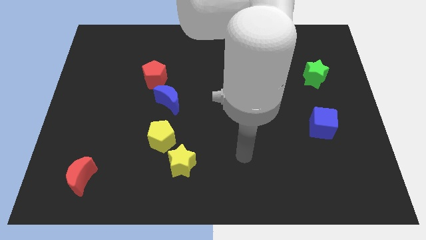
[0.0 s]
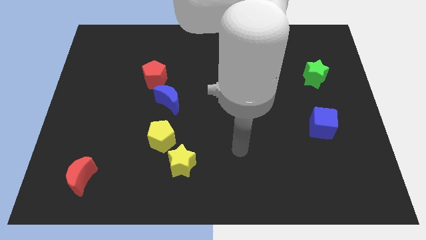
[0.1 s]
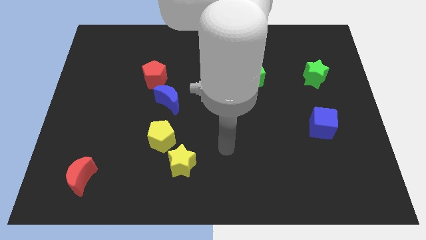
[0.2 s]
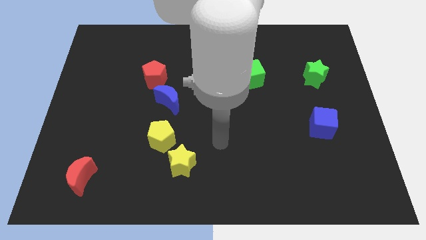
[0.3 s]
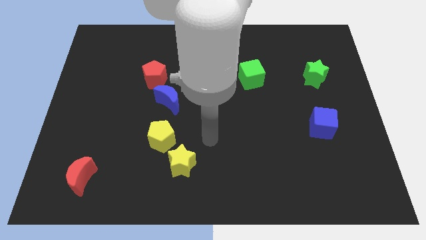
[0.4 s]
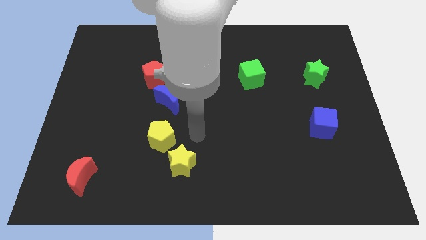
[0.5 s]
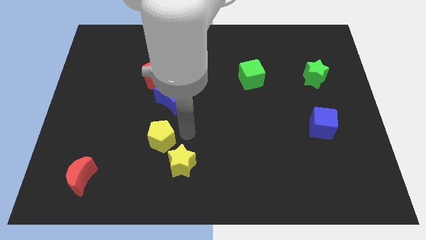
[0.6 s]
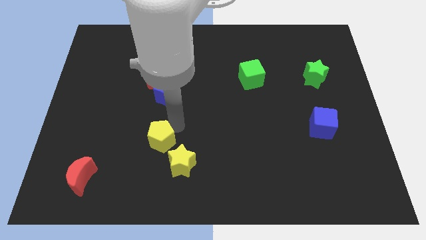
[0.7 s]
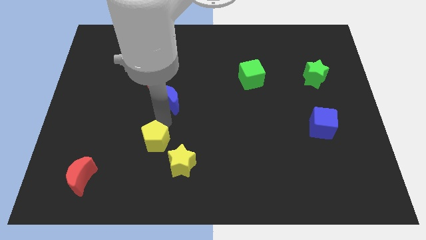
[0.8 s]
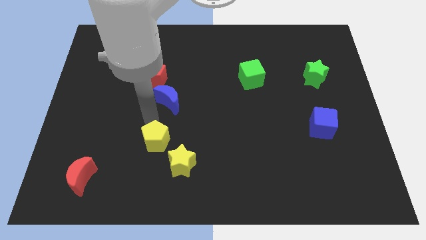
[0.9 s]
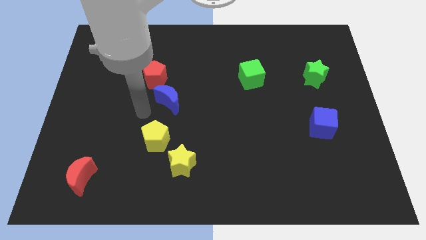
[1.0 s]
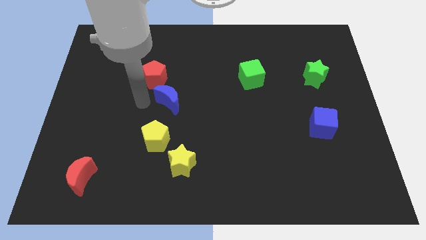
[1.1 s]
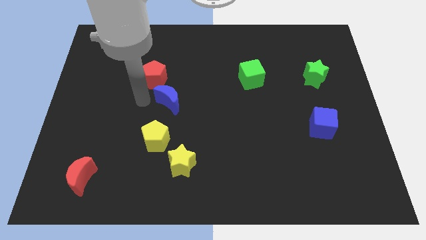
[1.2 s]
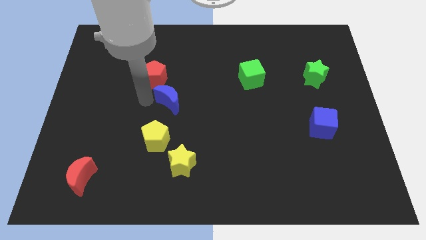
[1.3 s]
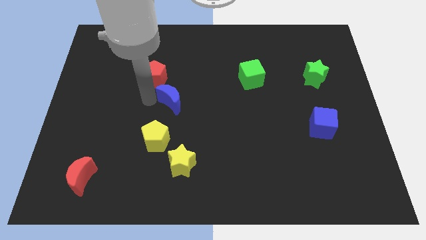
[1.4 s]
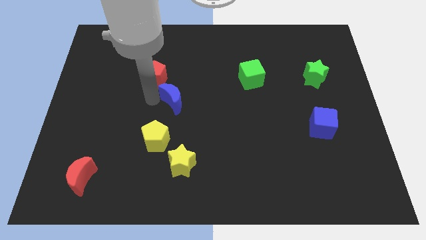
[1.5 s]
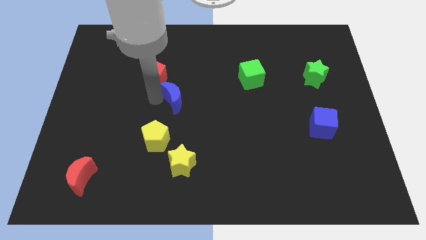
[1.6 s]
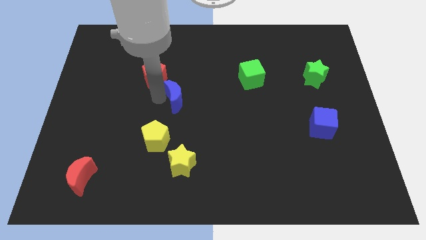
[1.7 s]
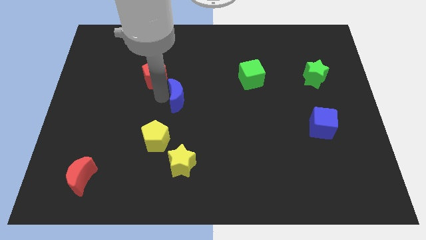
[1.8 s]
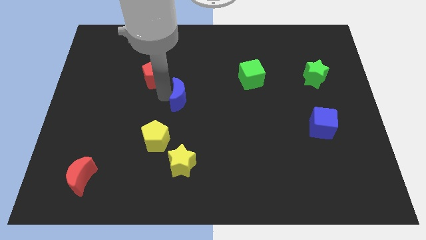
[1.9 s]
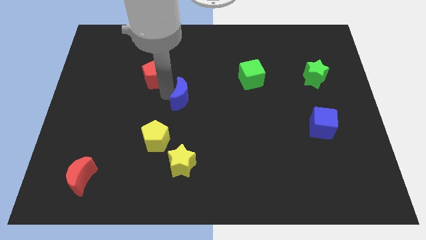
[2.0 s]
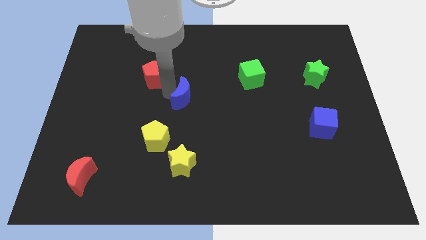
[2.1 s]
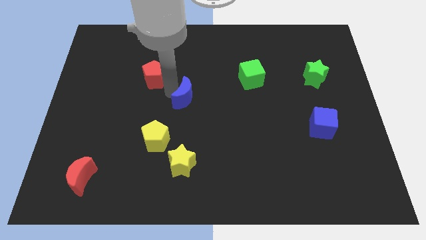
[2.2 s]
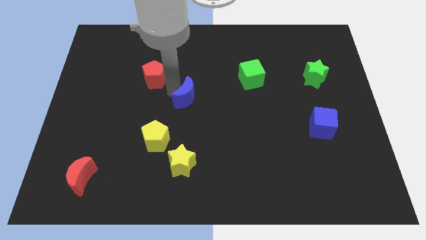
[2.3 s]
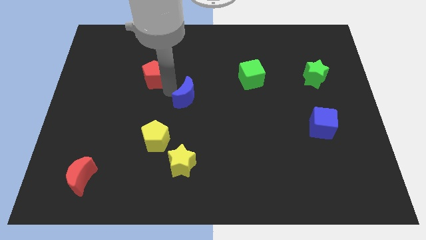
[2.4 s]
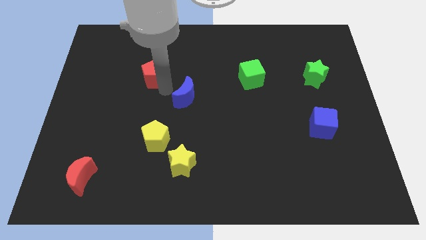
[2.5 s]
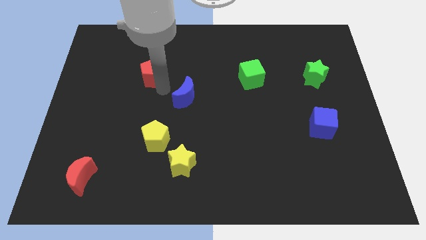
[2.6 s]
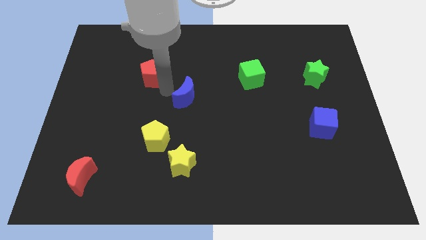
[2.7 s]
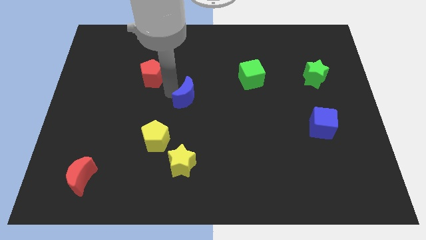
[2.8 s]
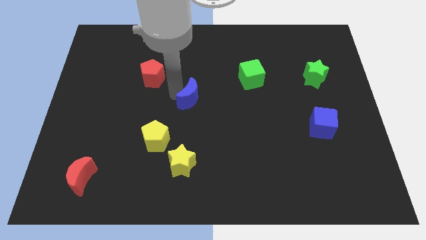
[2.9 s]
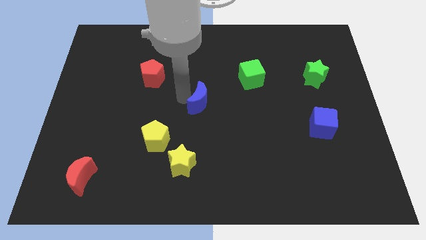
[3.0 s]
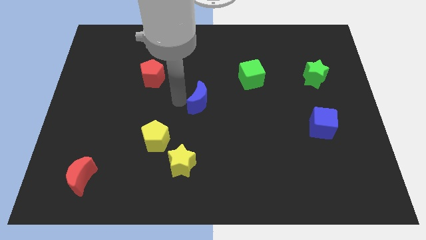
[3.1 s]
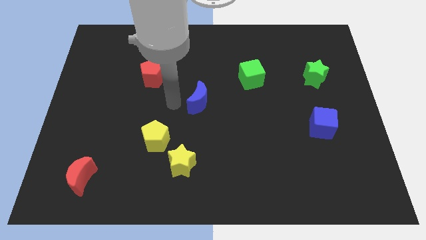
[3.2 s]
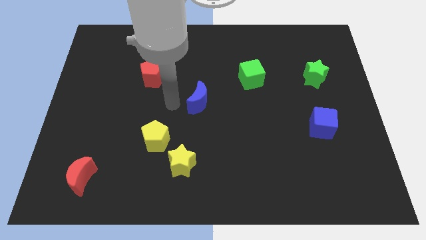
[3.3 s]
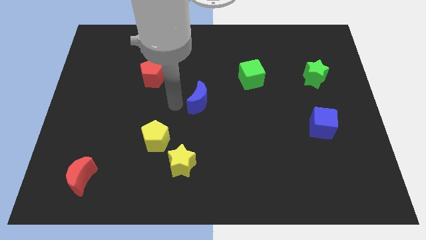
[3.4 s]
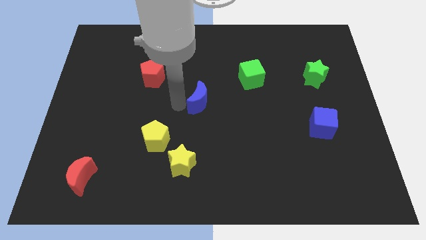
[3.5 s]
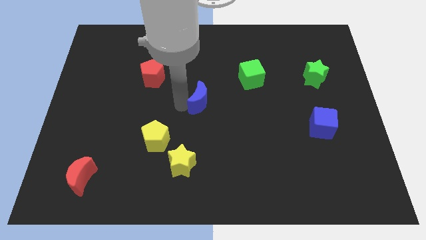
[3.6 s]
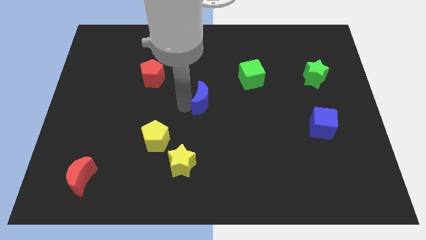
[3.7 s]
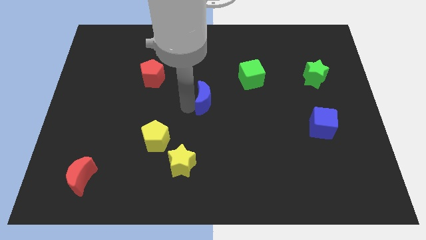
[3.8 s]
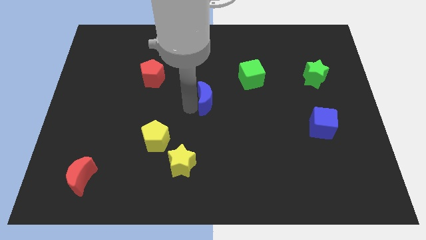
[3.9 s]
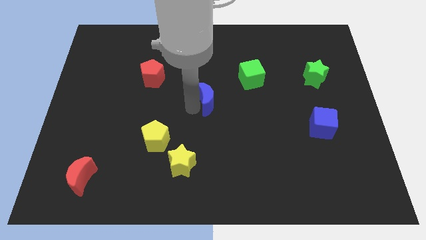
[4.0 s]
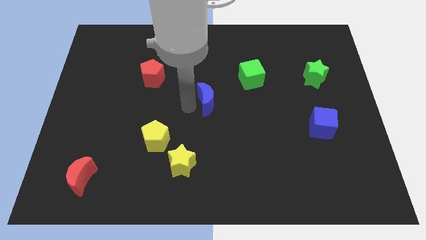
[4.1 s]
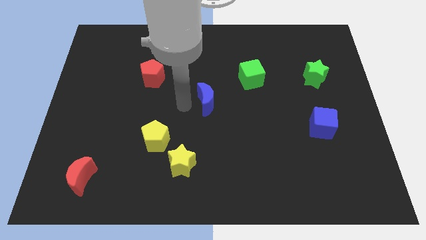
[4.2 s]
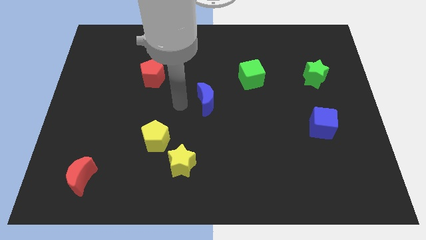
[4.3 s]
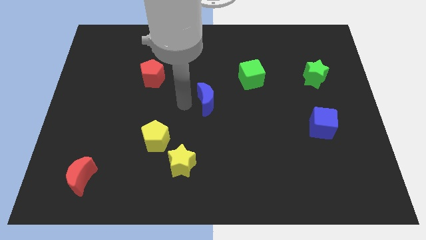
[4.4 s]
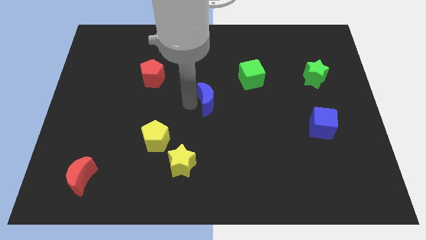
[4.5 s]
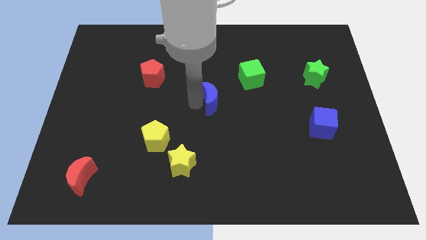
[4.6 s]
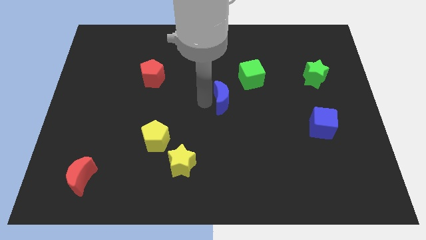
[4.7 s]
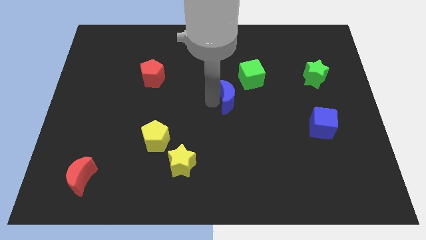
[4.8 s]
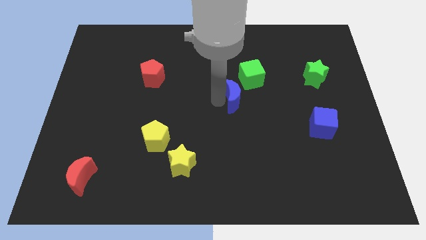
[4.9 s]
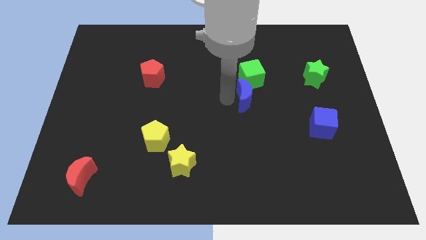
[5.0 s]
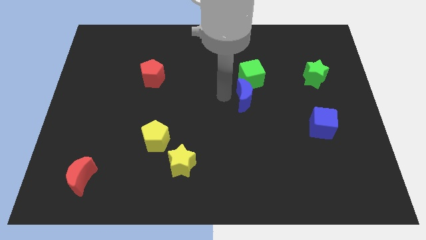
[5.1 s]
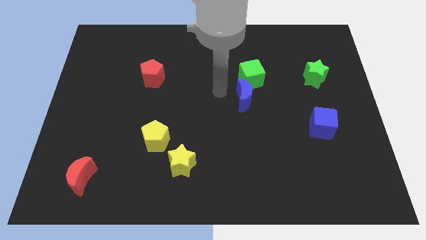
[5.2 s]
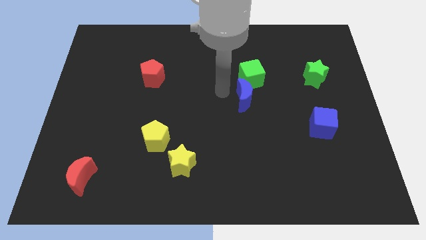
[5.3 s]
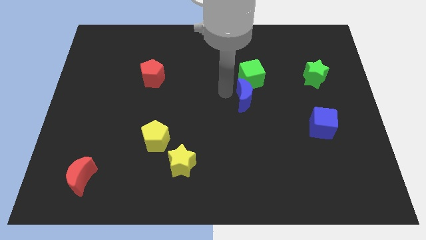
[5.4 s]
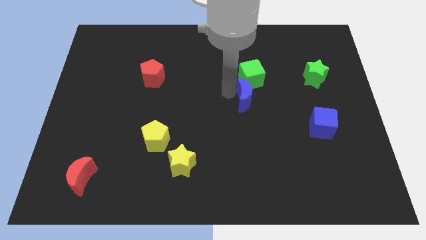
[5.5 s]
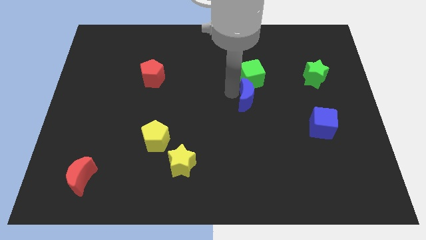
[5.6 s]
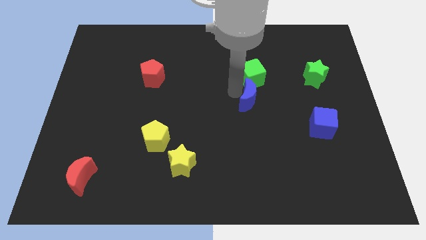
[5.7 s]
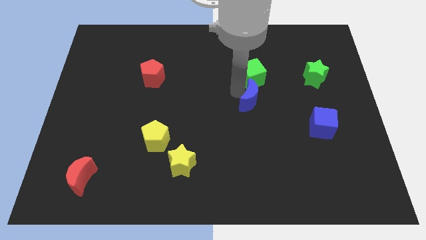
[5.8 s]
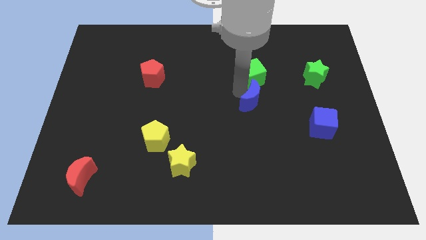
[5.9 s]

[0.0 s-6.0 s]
move the blue moon right

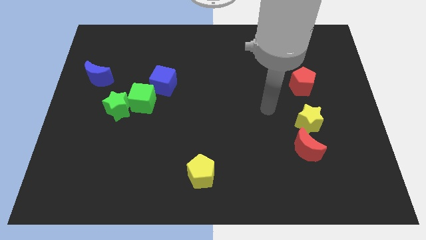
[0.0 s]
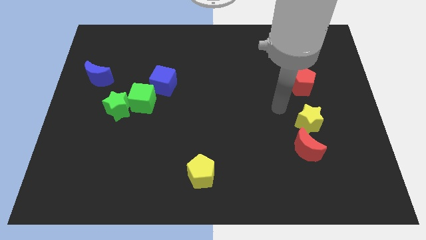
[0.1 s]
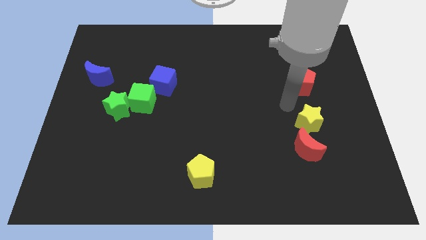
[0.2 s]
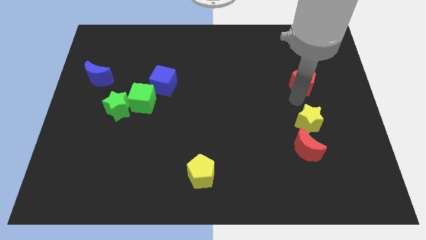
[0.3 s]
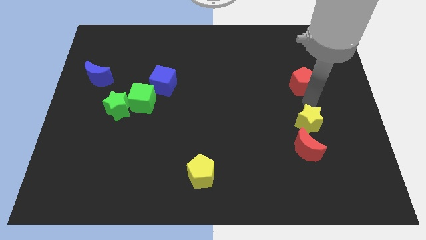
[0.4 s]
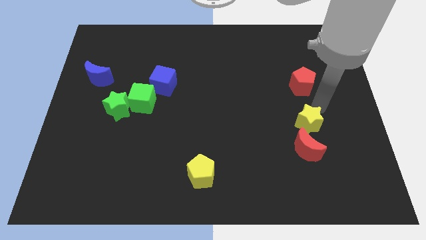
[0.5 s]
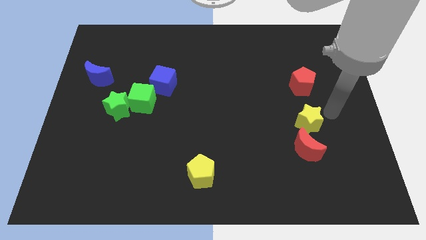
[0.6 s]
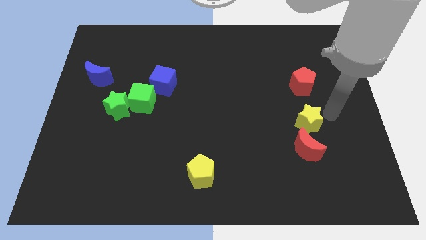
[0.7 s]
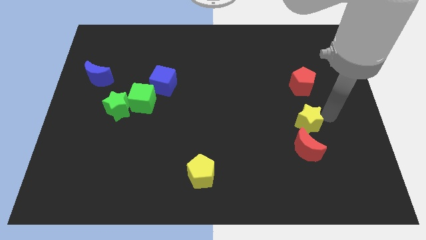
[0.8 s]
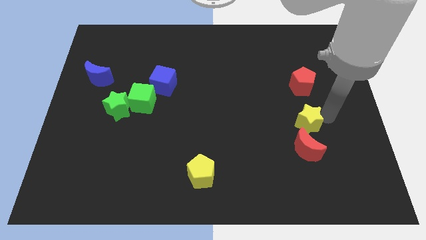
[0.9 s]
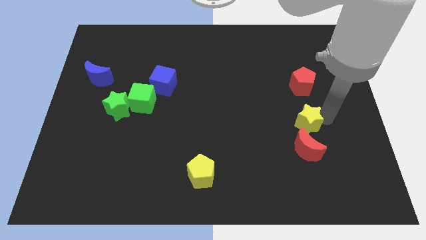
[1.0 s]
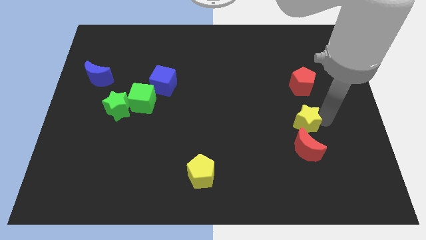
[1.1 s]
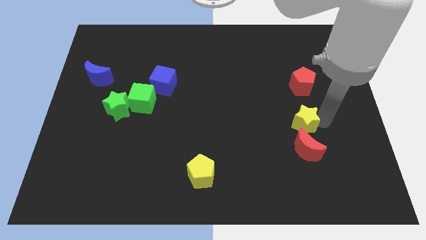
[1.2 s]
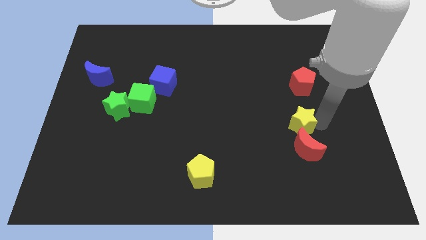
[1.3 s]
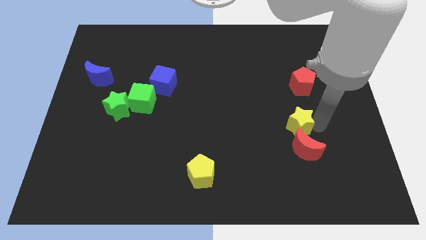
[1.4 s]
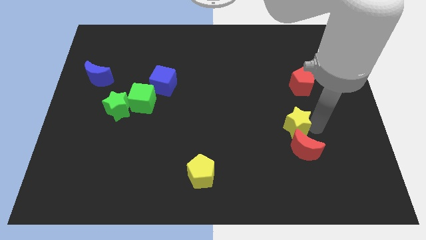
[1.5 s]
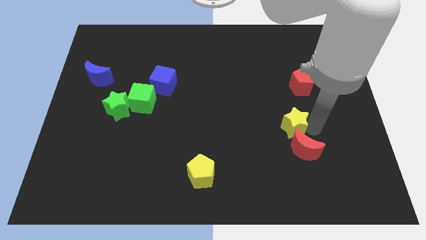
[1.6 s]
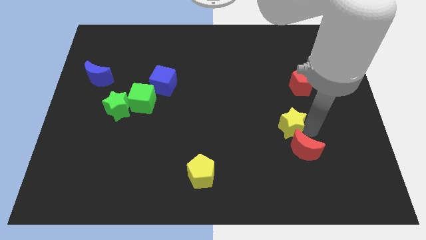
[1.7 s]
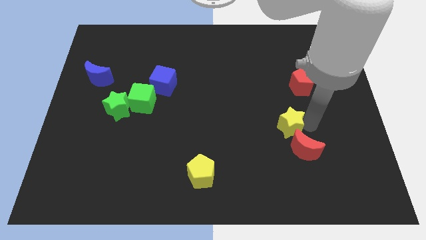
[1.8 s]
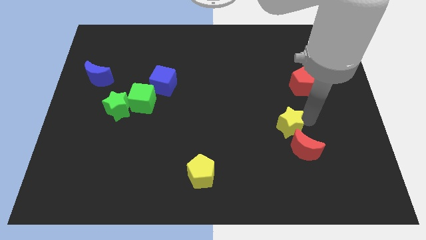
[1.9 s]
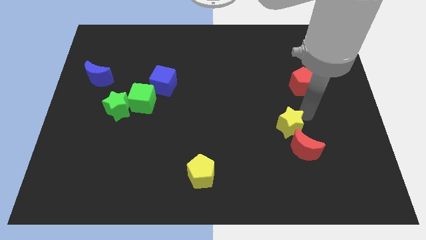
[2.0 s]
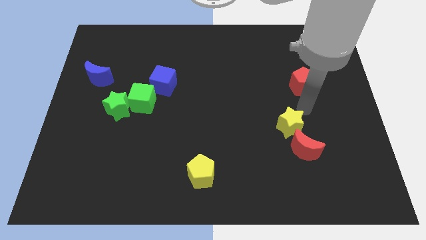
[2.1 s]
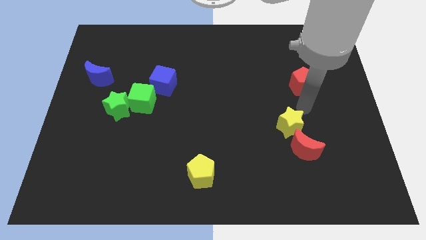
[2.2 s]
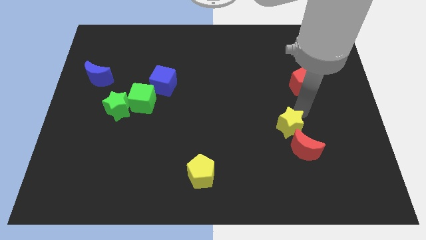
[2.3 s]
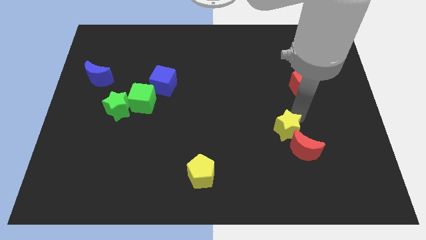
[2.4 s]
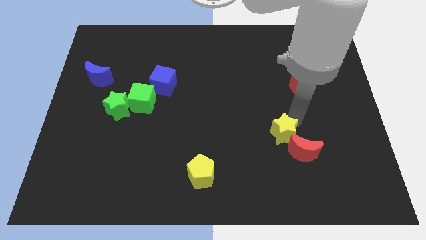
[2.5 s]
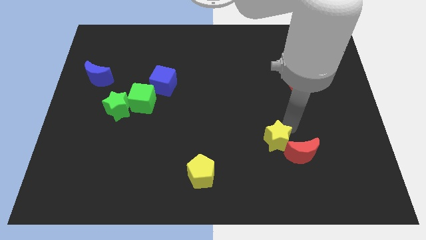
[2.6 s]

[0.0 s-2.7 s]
slide the yellow star diagonally downwards and to the left slightly
